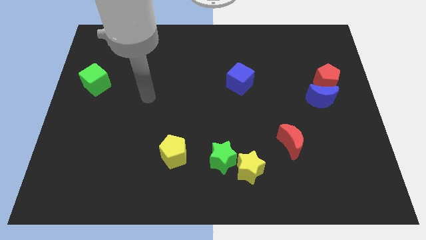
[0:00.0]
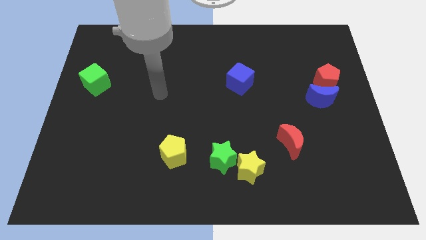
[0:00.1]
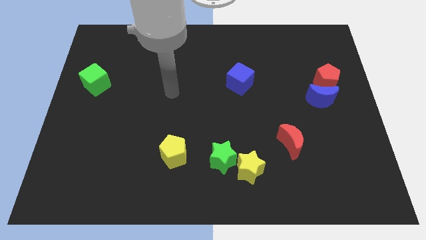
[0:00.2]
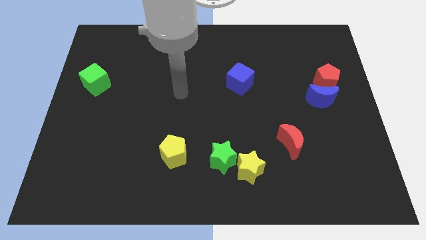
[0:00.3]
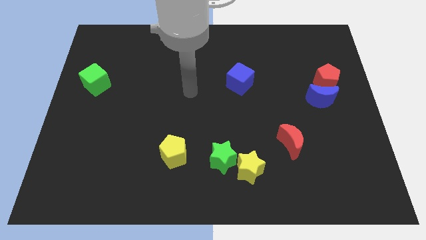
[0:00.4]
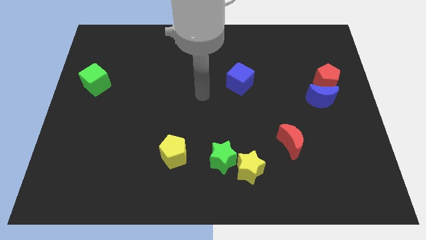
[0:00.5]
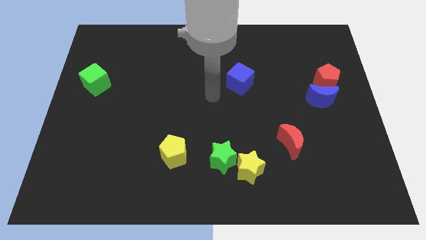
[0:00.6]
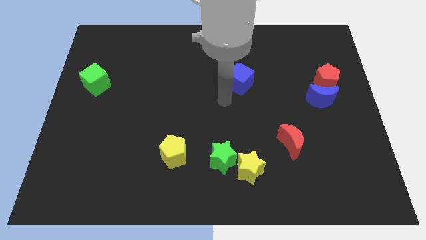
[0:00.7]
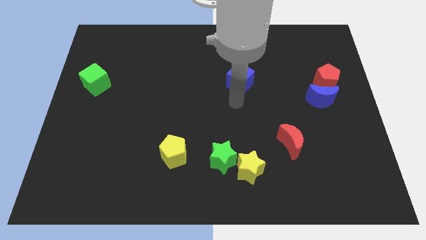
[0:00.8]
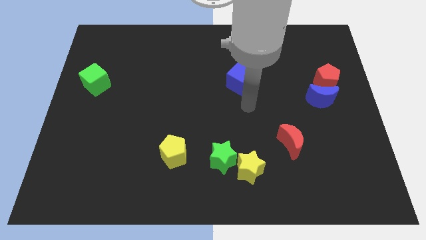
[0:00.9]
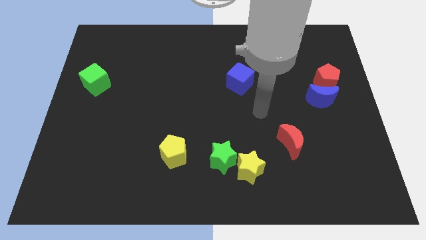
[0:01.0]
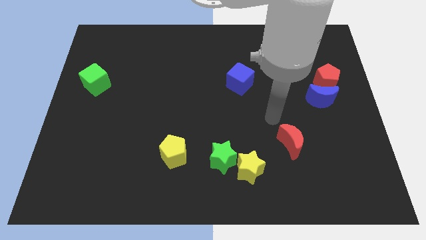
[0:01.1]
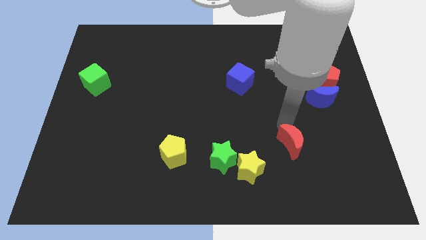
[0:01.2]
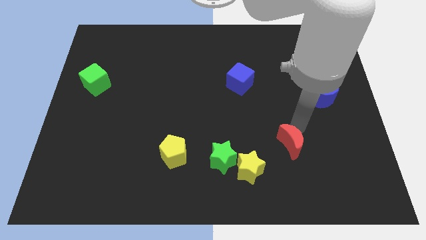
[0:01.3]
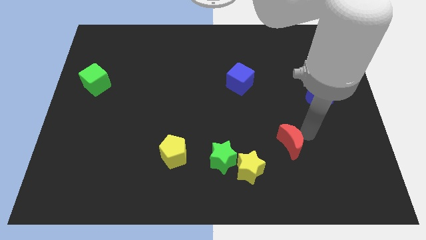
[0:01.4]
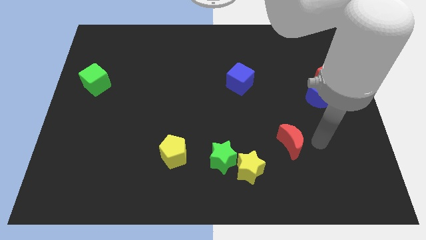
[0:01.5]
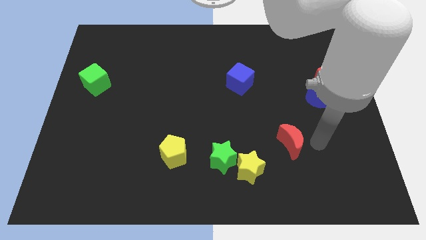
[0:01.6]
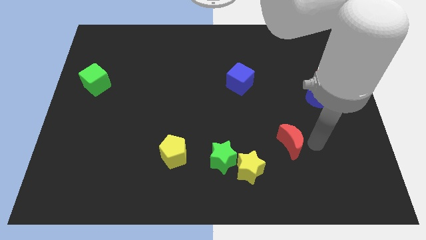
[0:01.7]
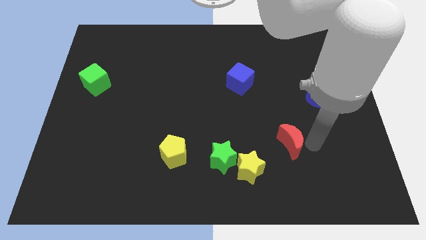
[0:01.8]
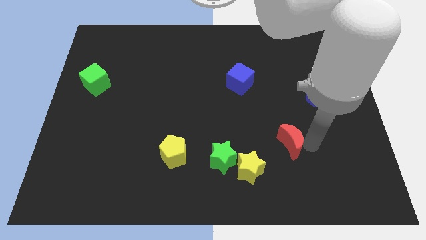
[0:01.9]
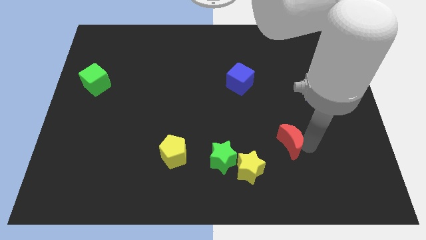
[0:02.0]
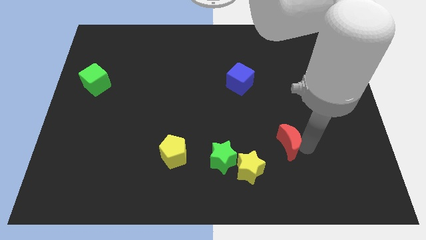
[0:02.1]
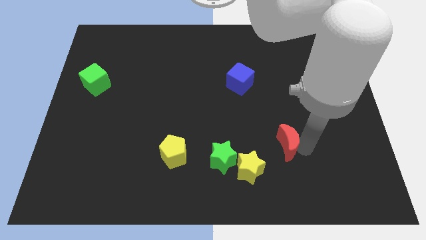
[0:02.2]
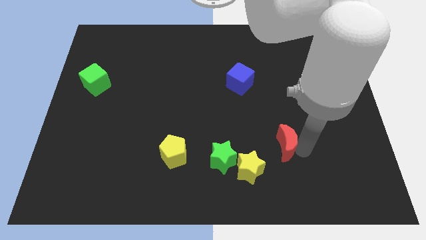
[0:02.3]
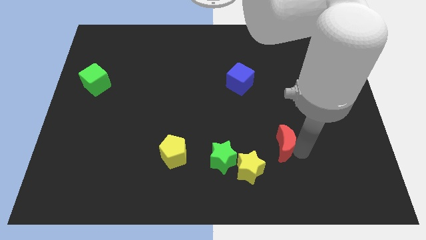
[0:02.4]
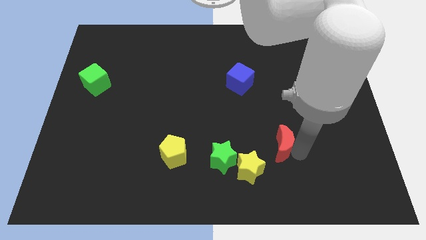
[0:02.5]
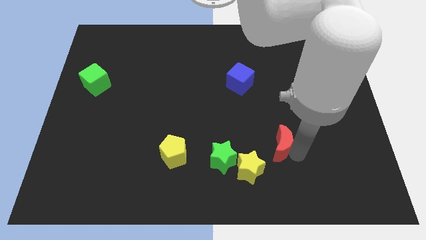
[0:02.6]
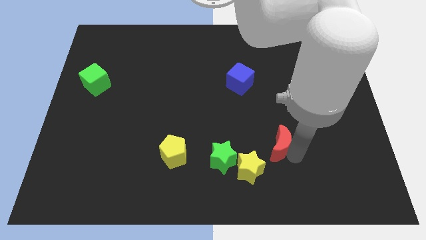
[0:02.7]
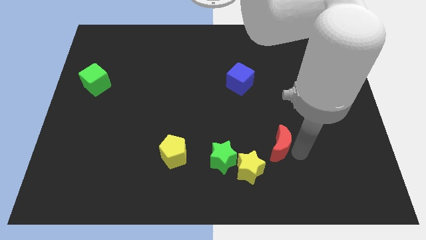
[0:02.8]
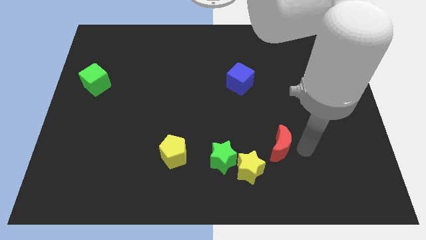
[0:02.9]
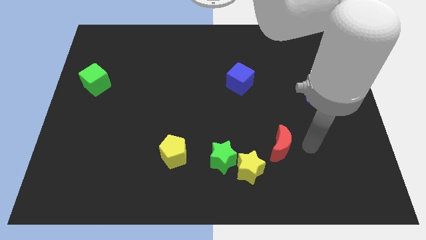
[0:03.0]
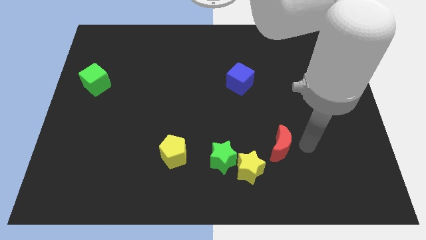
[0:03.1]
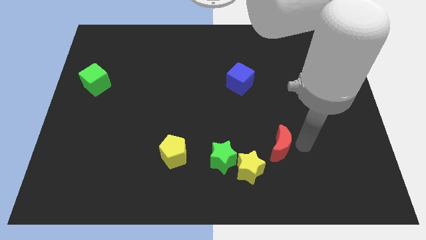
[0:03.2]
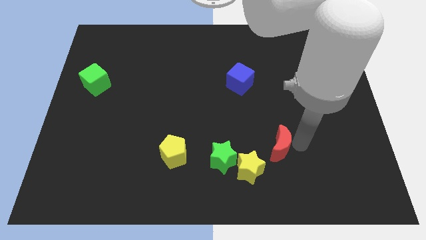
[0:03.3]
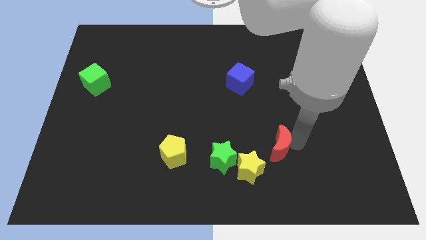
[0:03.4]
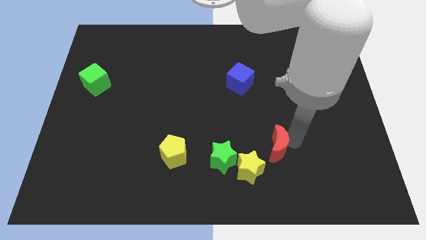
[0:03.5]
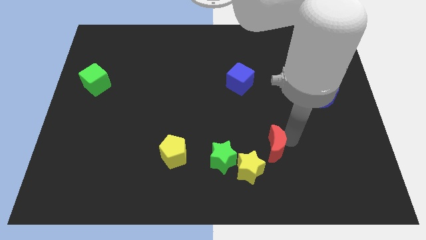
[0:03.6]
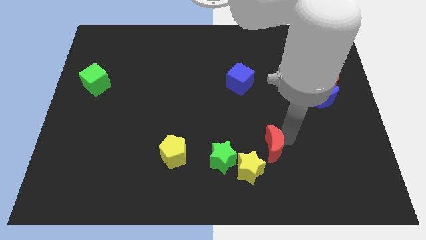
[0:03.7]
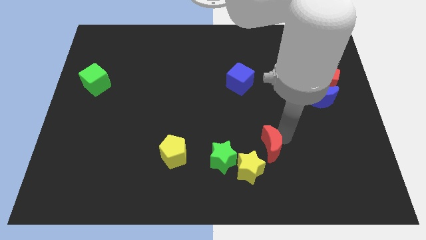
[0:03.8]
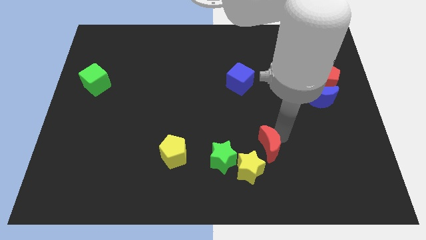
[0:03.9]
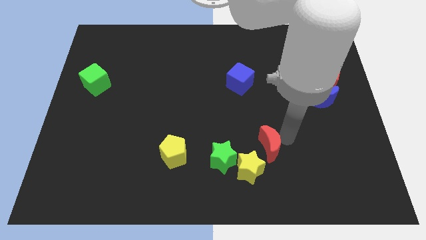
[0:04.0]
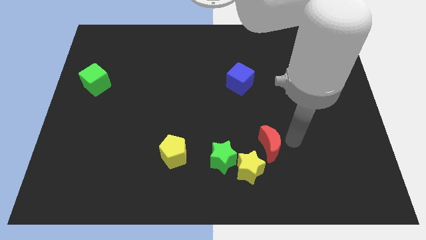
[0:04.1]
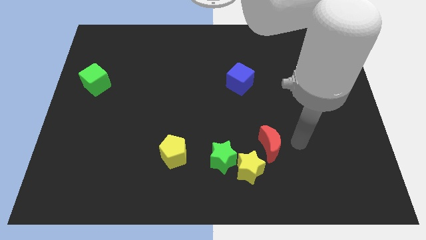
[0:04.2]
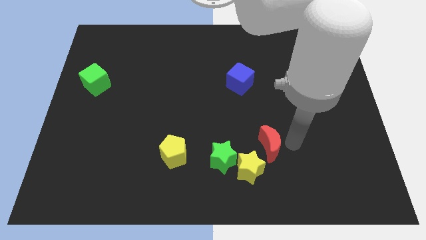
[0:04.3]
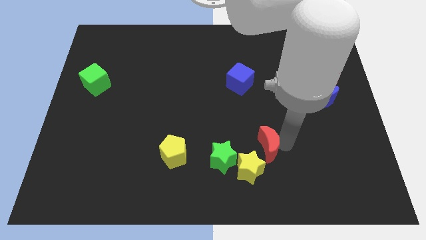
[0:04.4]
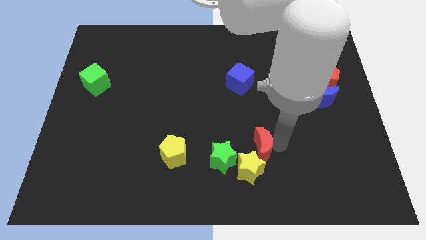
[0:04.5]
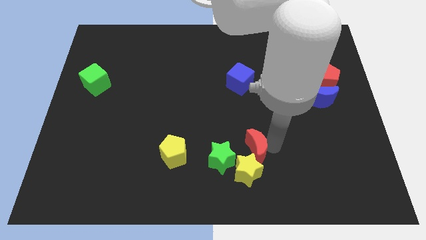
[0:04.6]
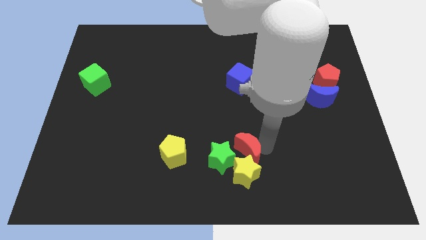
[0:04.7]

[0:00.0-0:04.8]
move the red moon to the right side of the yellow pentagon

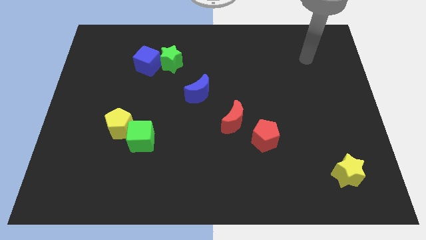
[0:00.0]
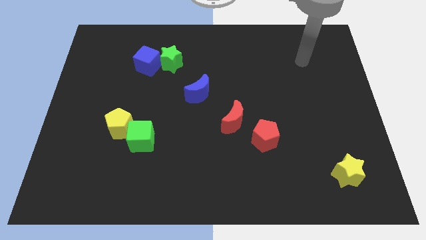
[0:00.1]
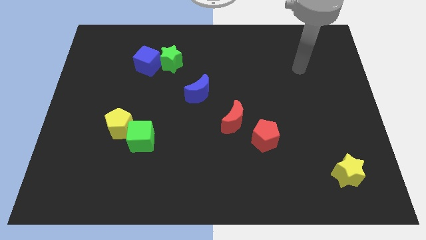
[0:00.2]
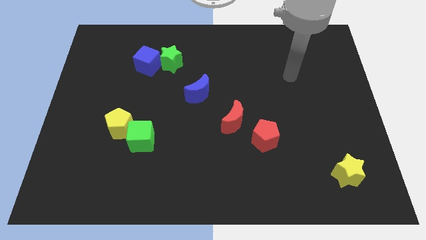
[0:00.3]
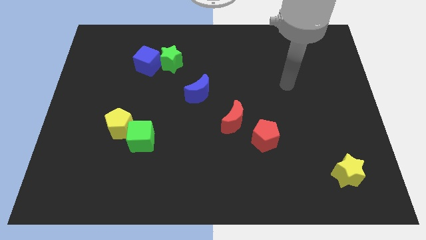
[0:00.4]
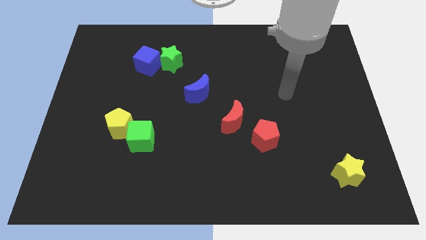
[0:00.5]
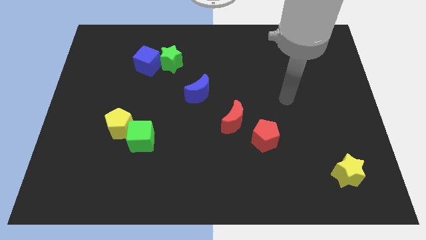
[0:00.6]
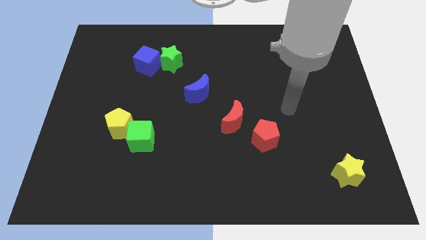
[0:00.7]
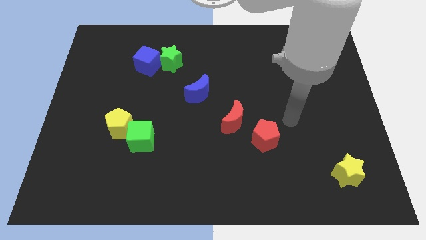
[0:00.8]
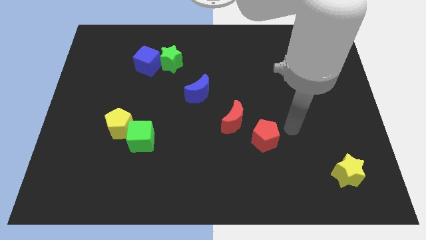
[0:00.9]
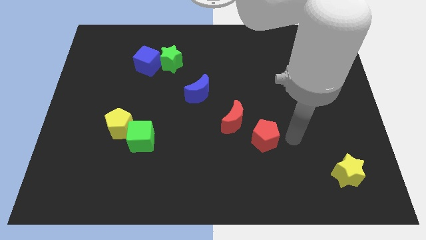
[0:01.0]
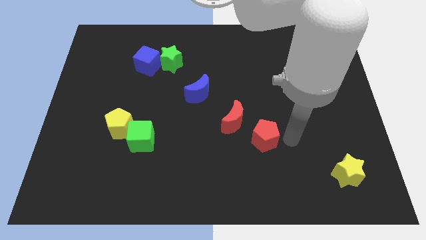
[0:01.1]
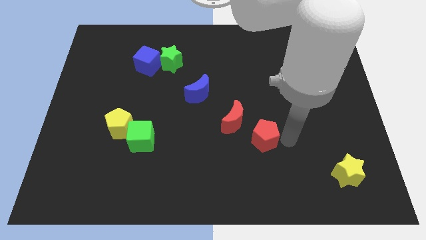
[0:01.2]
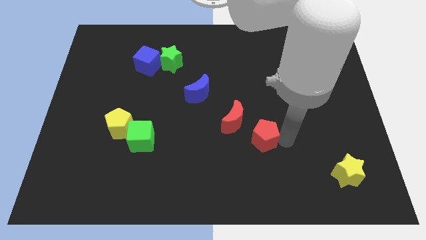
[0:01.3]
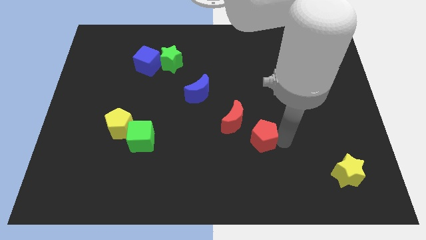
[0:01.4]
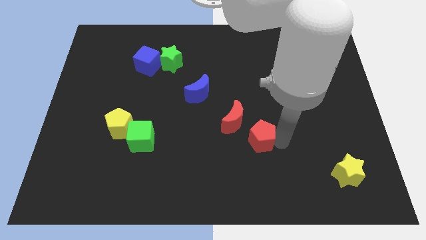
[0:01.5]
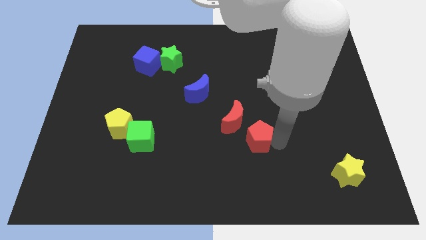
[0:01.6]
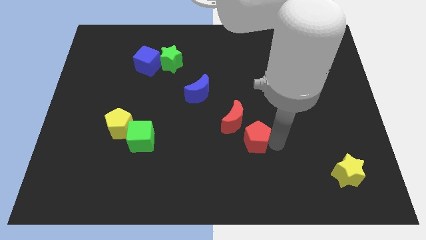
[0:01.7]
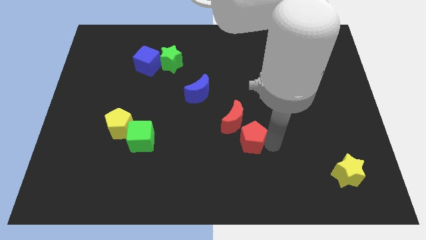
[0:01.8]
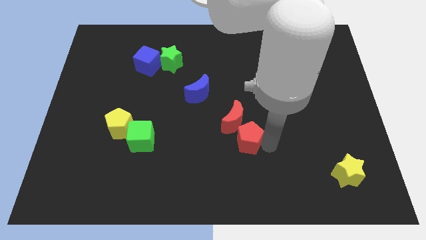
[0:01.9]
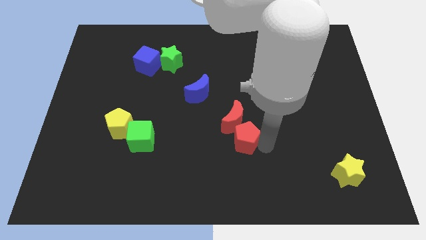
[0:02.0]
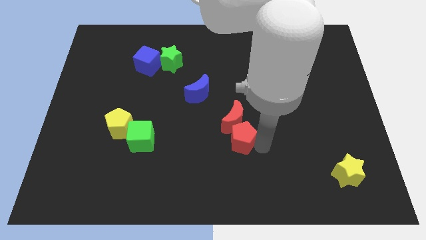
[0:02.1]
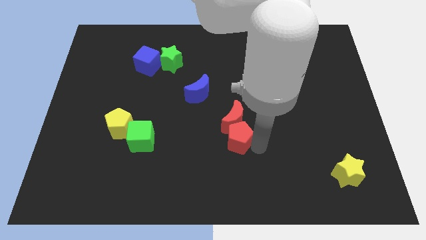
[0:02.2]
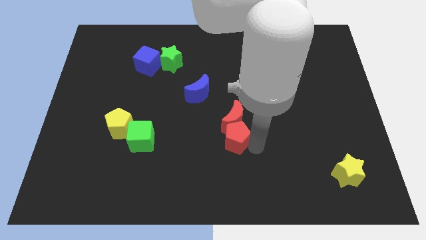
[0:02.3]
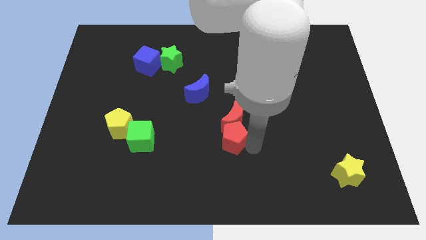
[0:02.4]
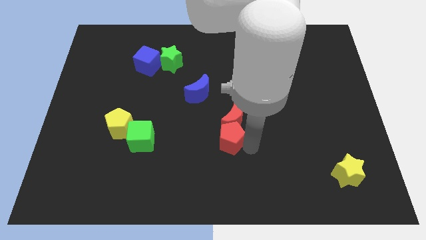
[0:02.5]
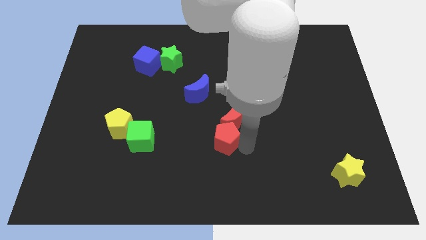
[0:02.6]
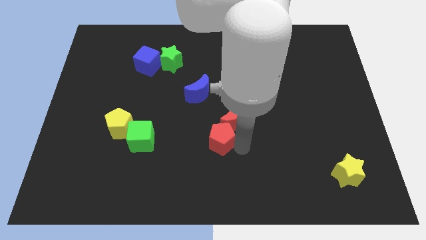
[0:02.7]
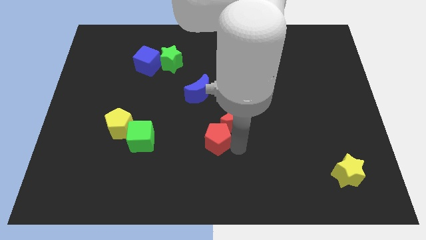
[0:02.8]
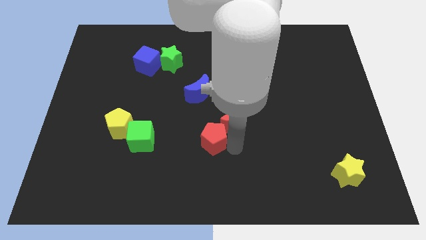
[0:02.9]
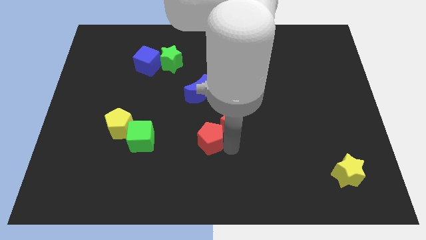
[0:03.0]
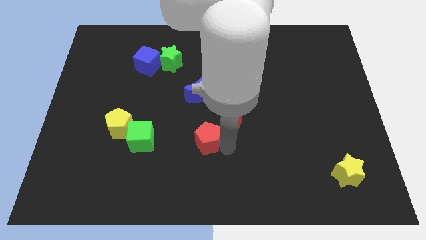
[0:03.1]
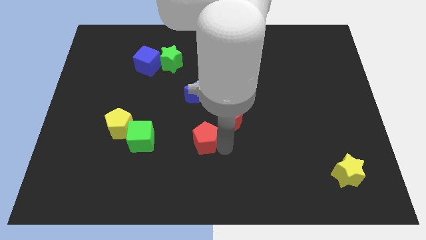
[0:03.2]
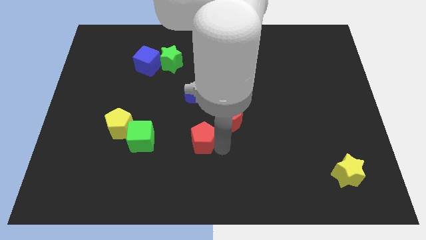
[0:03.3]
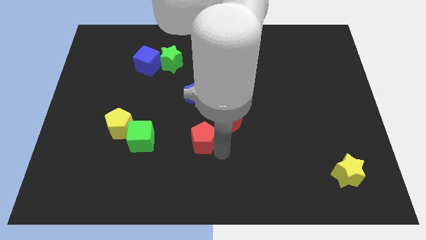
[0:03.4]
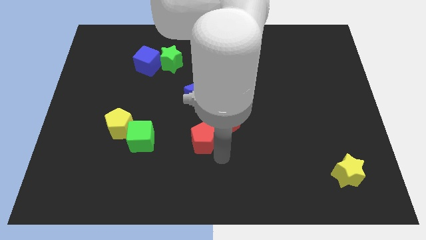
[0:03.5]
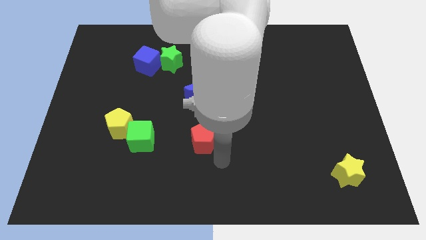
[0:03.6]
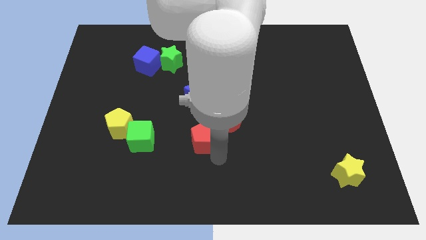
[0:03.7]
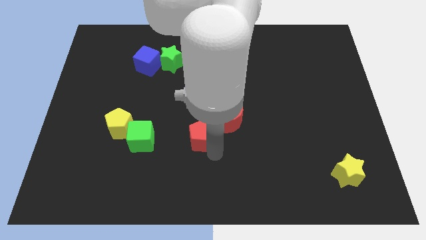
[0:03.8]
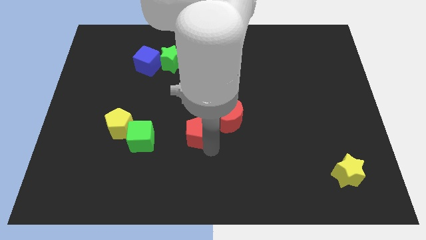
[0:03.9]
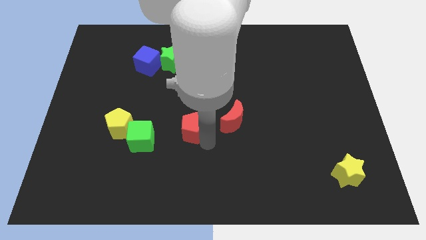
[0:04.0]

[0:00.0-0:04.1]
move the red pentagon just right of the yellow pentagon
